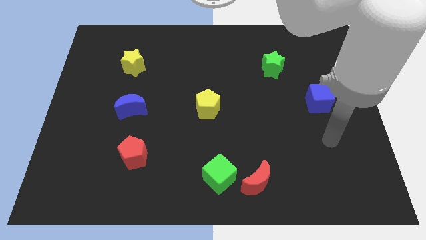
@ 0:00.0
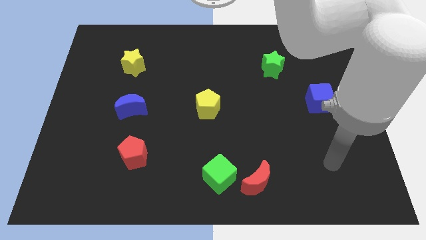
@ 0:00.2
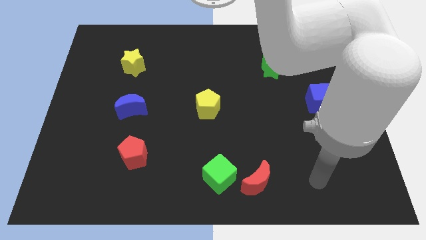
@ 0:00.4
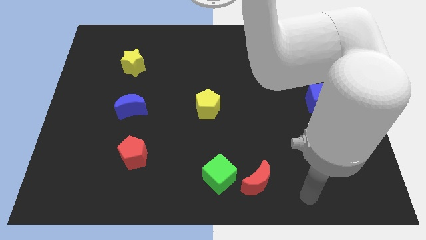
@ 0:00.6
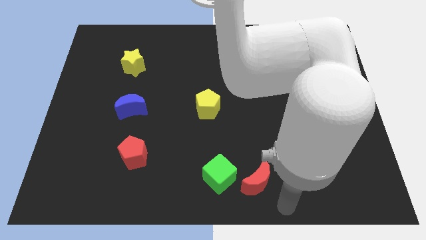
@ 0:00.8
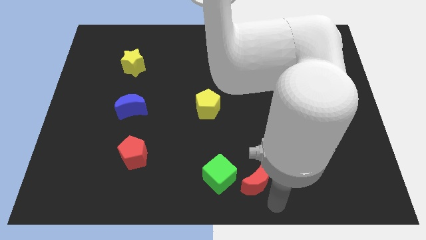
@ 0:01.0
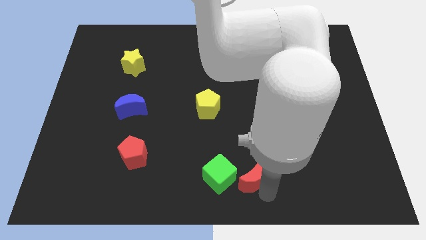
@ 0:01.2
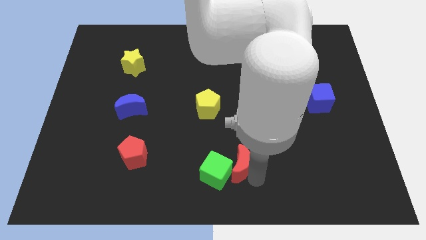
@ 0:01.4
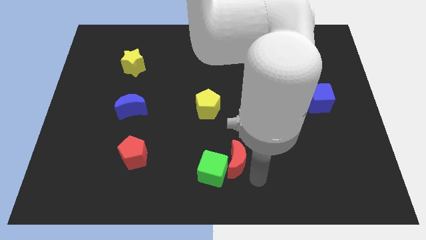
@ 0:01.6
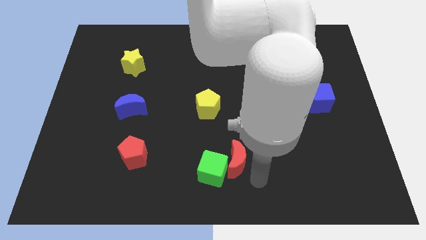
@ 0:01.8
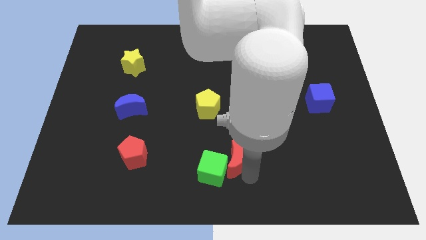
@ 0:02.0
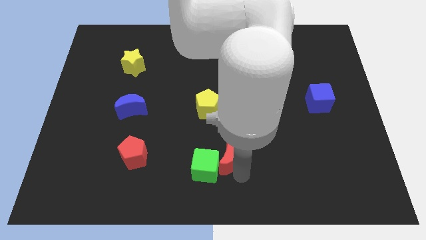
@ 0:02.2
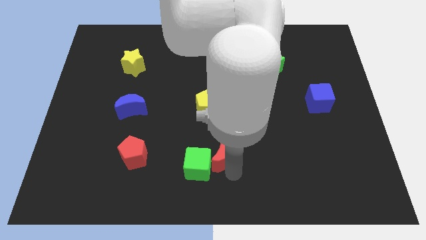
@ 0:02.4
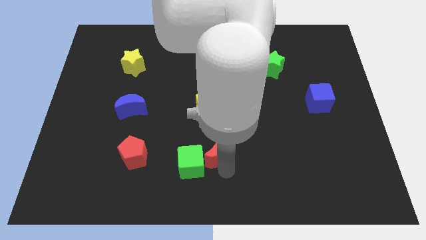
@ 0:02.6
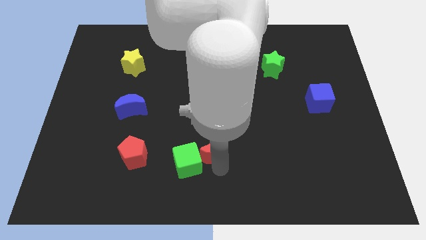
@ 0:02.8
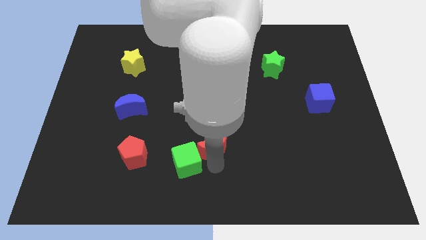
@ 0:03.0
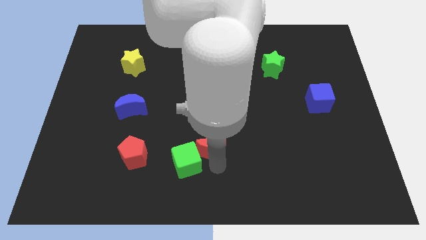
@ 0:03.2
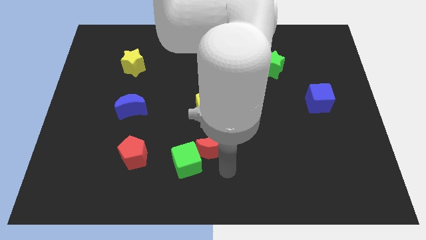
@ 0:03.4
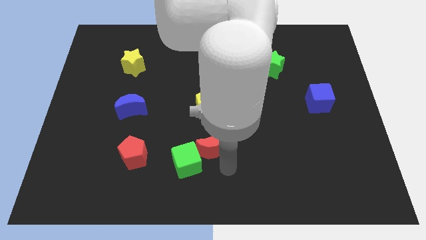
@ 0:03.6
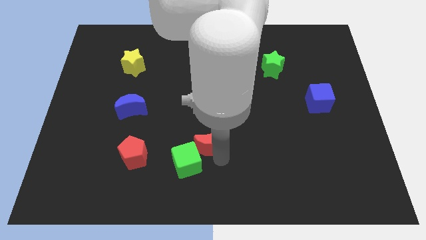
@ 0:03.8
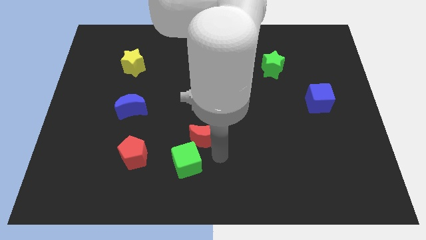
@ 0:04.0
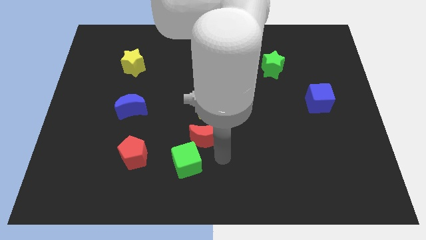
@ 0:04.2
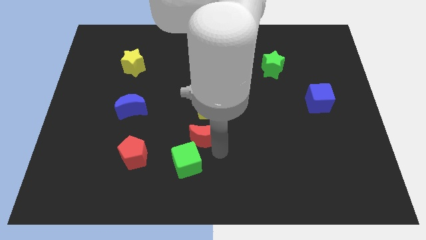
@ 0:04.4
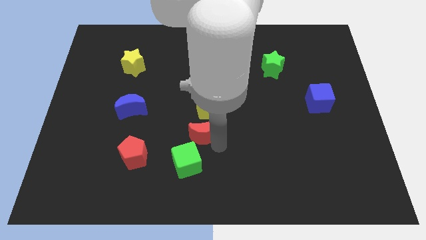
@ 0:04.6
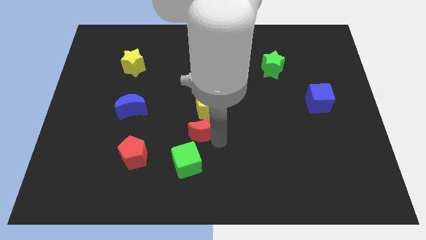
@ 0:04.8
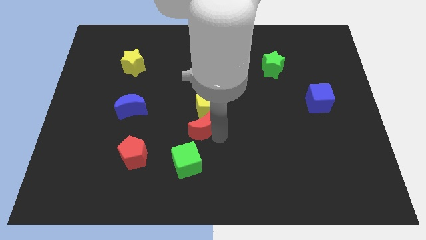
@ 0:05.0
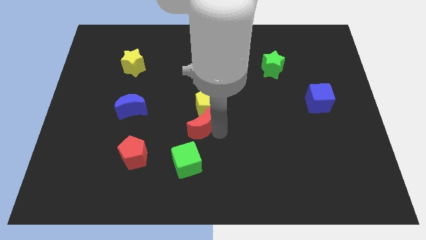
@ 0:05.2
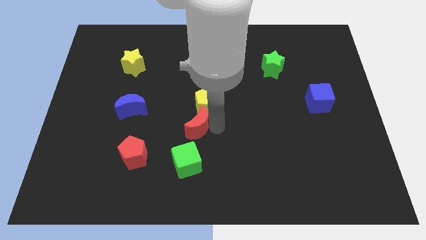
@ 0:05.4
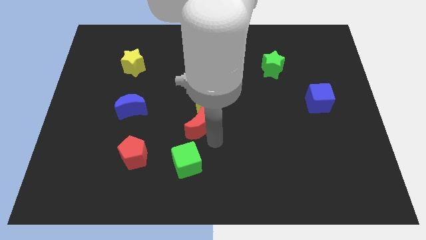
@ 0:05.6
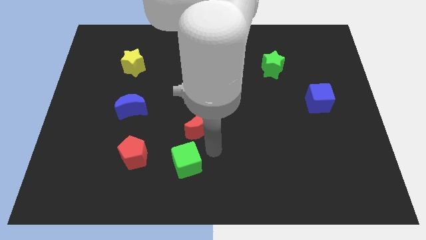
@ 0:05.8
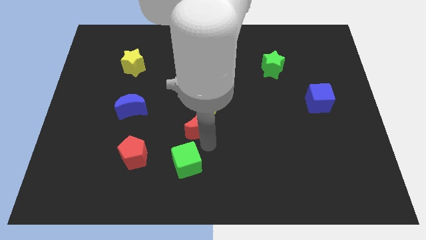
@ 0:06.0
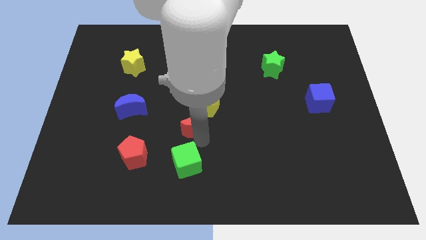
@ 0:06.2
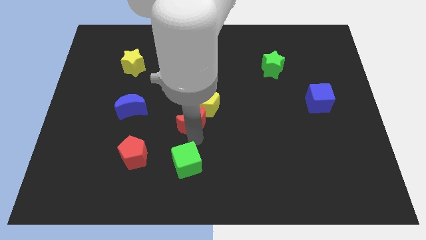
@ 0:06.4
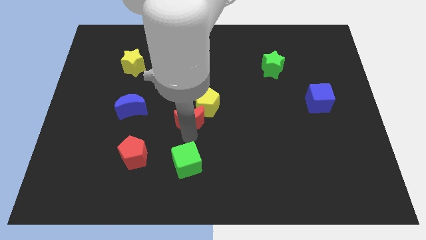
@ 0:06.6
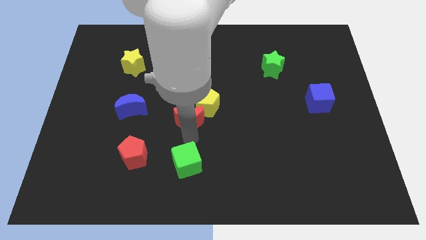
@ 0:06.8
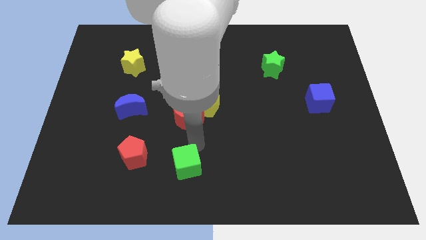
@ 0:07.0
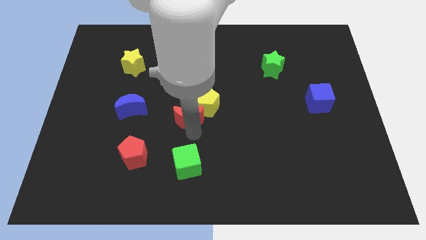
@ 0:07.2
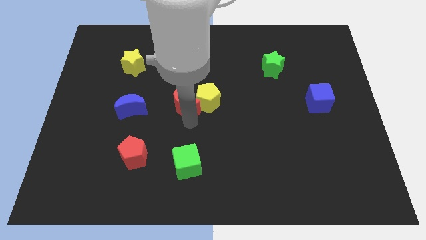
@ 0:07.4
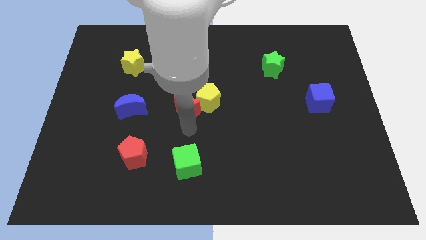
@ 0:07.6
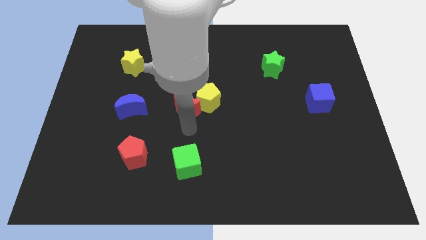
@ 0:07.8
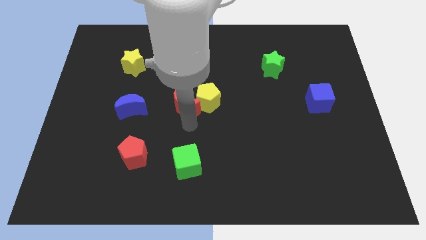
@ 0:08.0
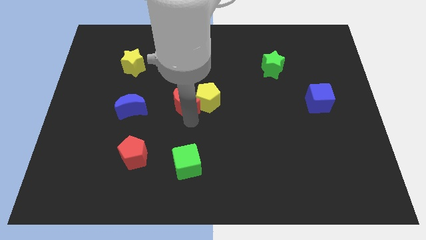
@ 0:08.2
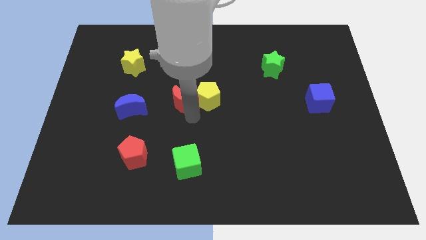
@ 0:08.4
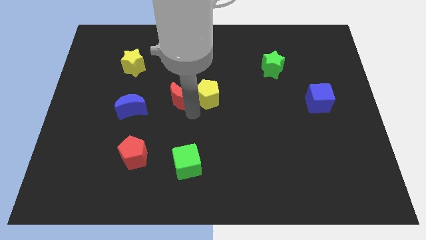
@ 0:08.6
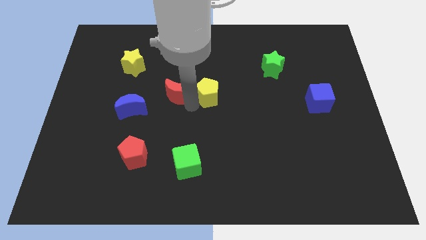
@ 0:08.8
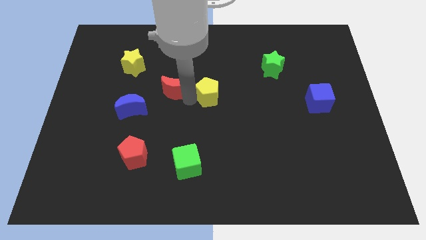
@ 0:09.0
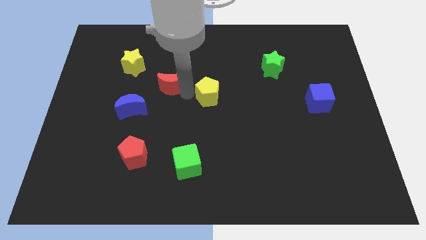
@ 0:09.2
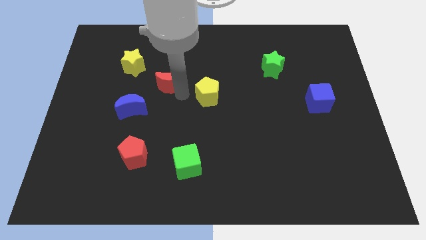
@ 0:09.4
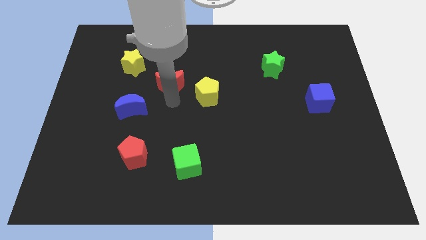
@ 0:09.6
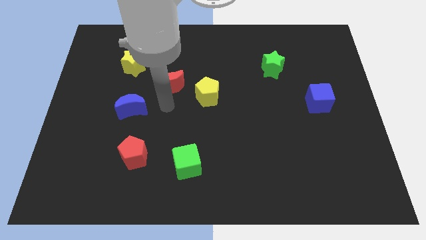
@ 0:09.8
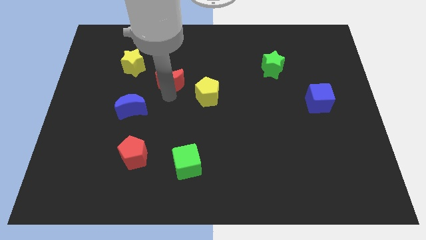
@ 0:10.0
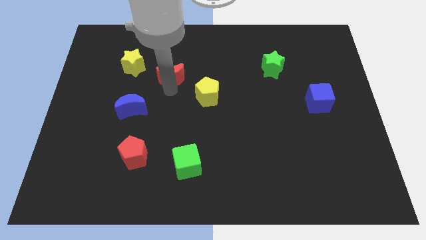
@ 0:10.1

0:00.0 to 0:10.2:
put the red moon just right of the yellow star

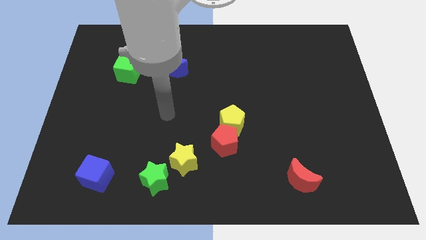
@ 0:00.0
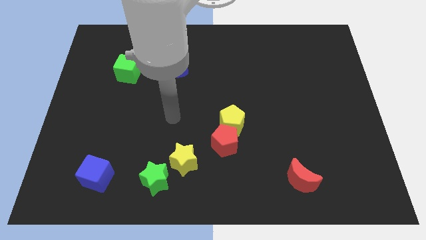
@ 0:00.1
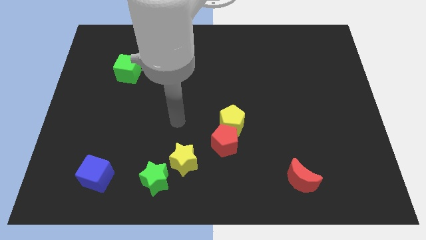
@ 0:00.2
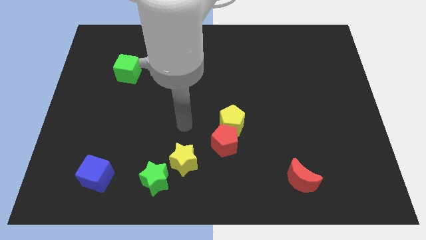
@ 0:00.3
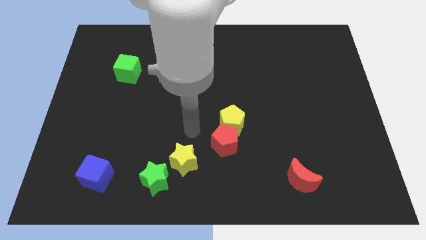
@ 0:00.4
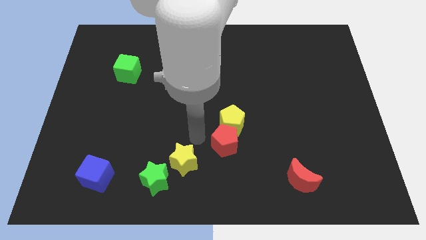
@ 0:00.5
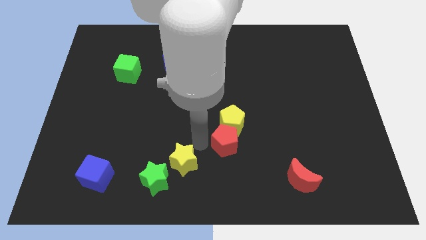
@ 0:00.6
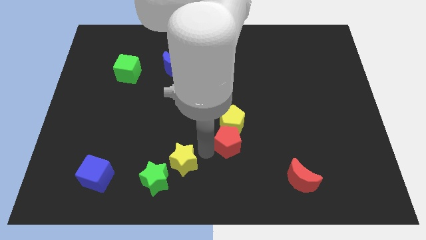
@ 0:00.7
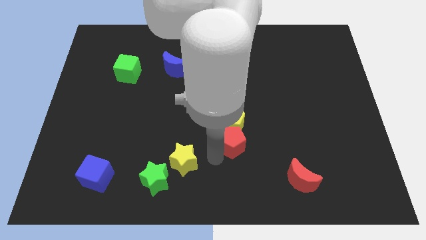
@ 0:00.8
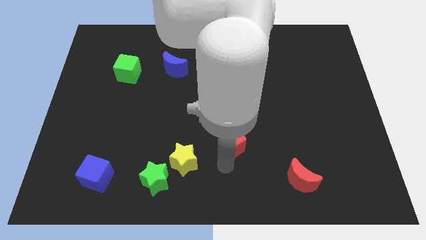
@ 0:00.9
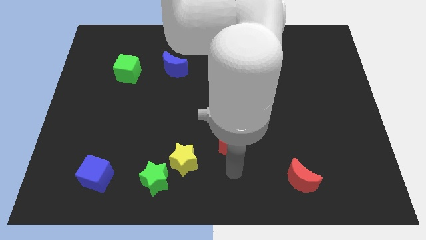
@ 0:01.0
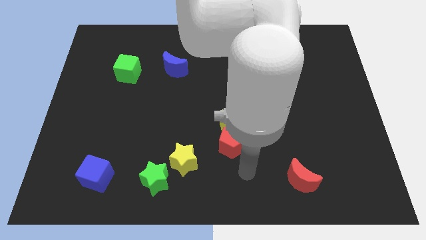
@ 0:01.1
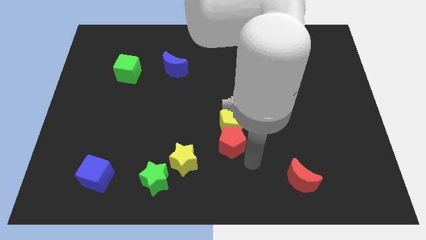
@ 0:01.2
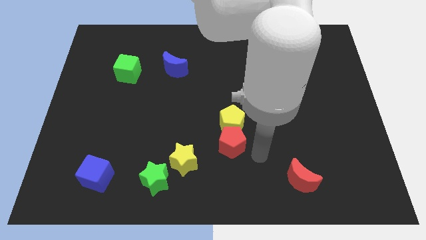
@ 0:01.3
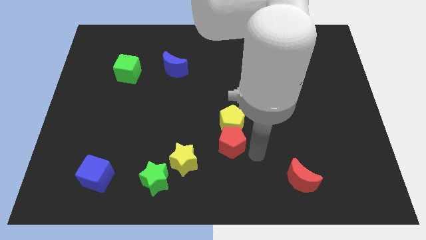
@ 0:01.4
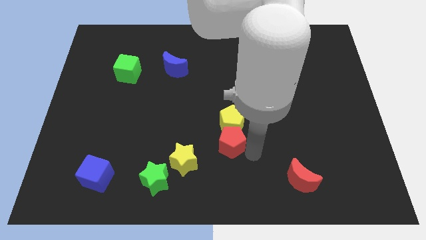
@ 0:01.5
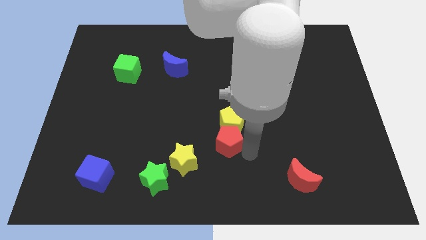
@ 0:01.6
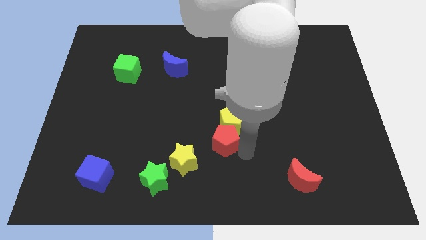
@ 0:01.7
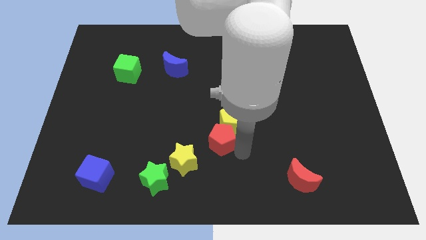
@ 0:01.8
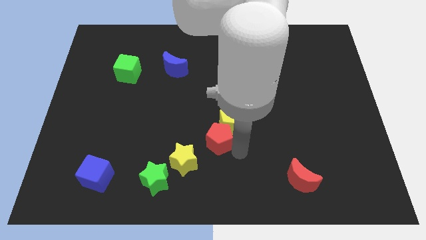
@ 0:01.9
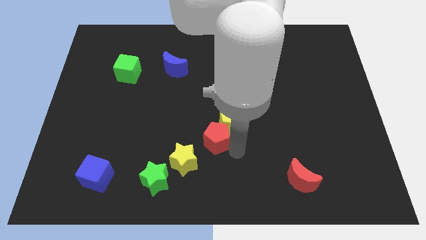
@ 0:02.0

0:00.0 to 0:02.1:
slide the red pentagon to the left of the yellow pentagon

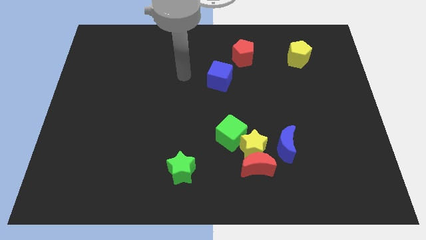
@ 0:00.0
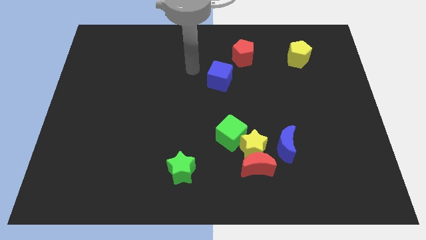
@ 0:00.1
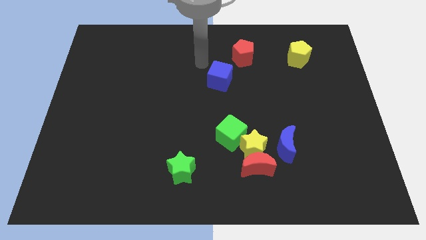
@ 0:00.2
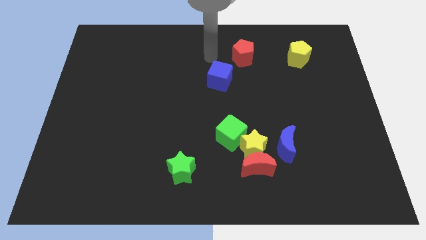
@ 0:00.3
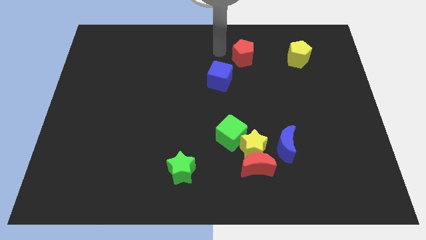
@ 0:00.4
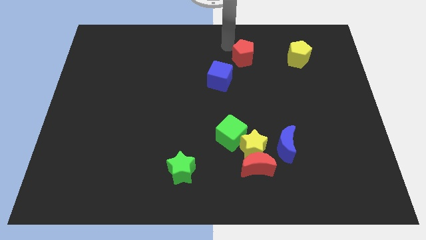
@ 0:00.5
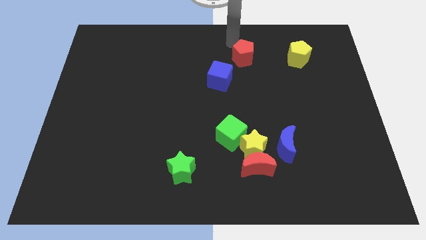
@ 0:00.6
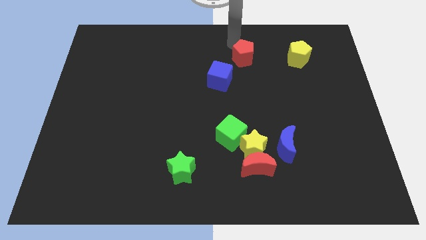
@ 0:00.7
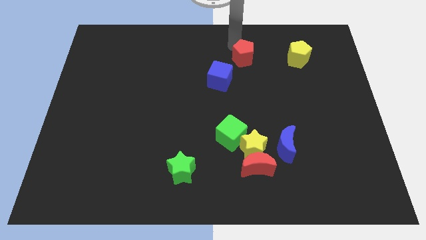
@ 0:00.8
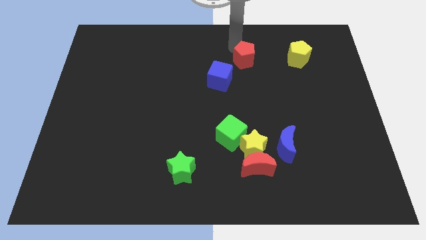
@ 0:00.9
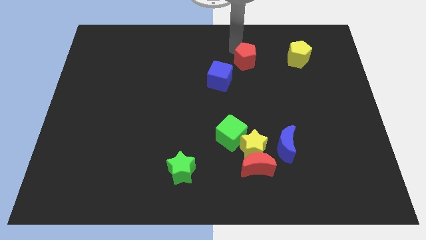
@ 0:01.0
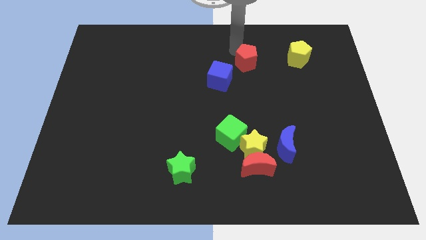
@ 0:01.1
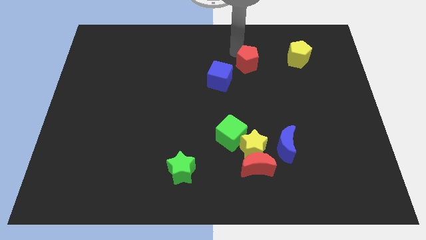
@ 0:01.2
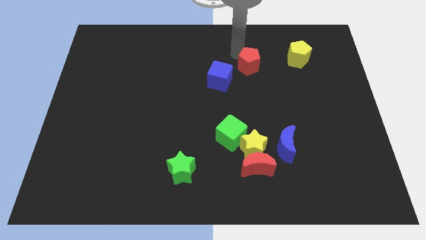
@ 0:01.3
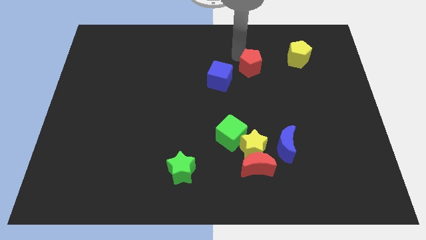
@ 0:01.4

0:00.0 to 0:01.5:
slide the red pentagon to the right side of the blue cube
